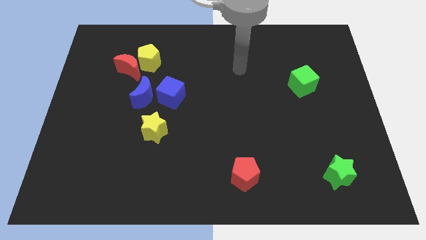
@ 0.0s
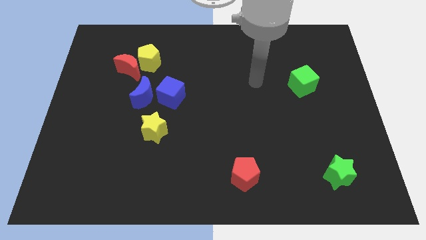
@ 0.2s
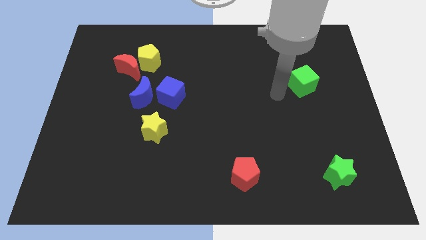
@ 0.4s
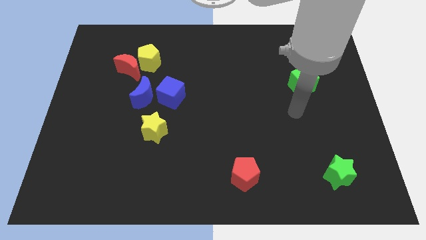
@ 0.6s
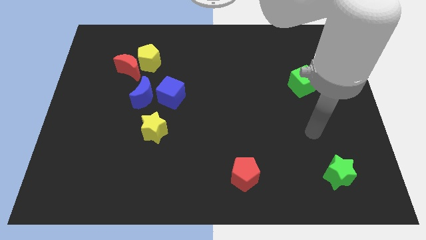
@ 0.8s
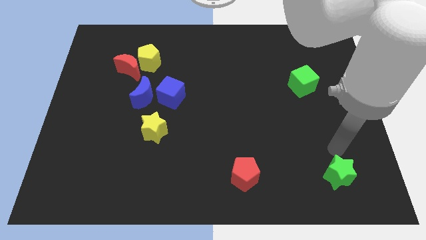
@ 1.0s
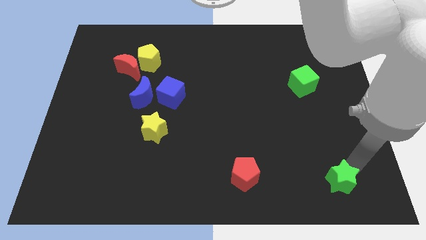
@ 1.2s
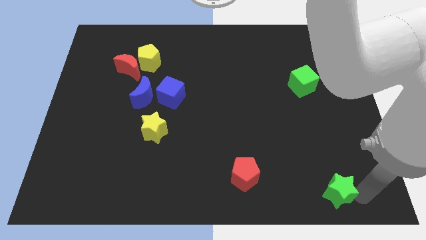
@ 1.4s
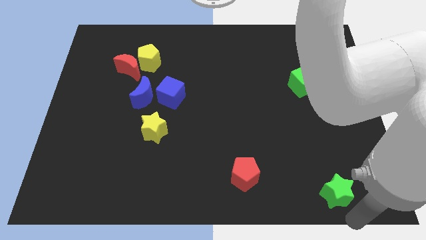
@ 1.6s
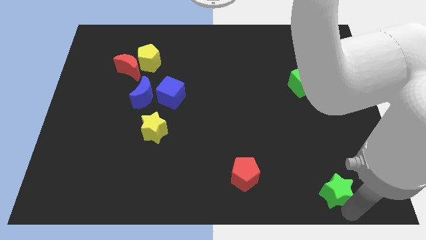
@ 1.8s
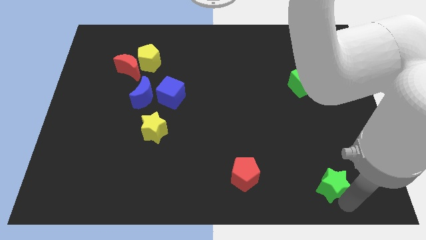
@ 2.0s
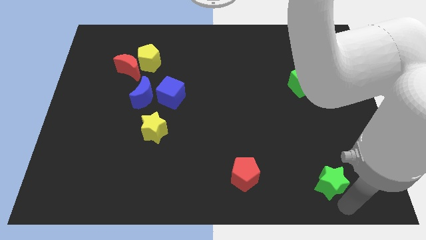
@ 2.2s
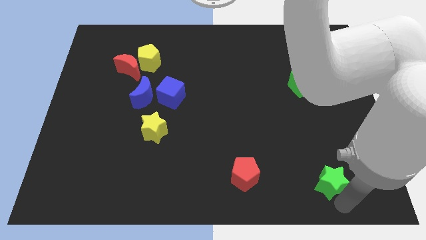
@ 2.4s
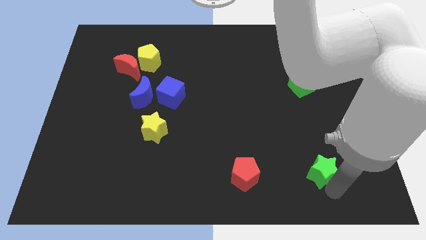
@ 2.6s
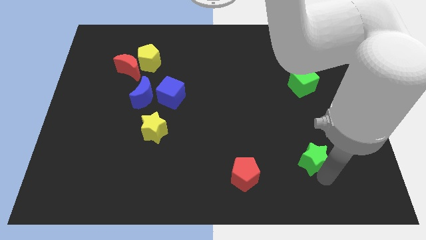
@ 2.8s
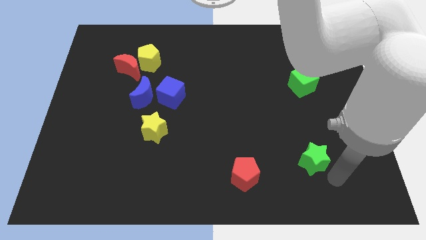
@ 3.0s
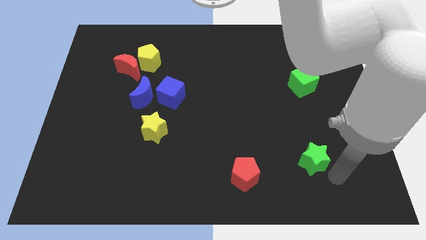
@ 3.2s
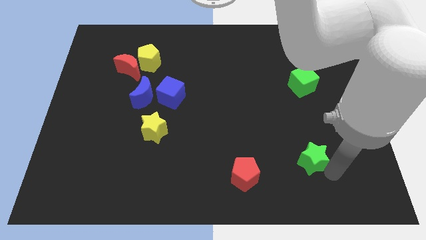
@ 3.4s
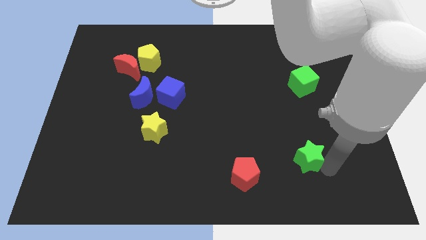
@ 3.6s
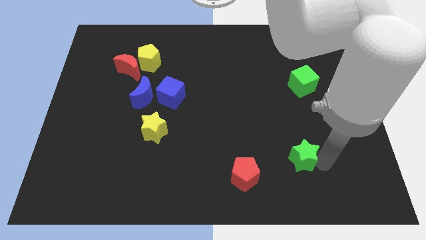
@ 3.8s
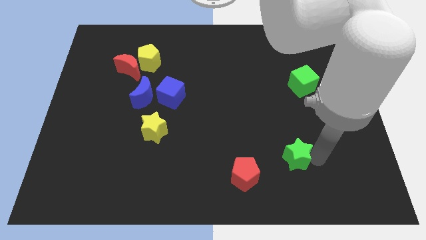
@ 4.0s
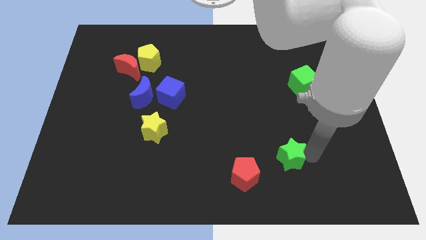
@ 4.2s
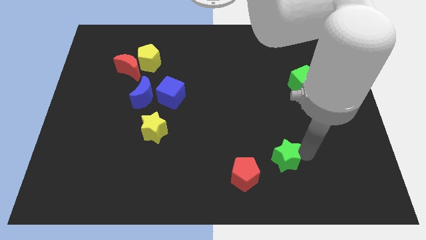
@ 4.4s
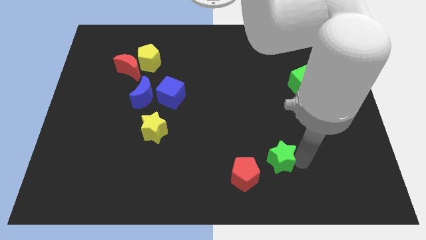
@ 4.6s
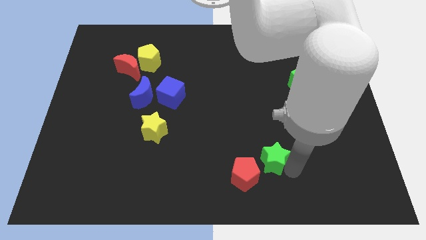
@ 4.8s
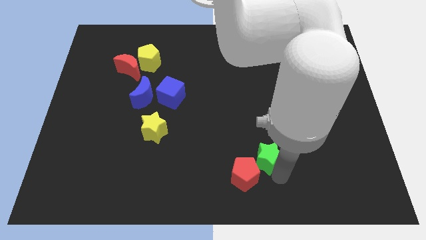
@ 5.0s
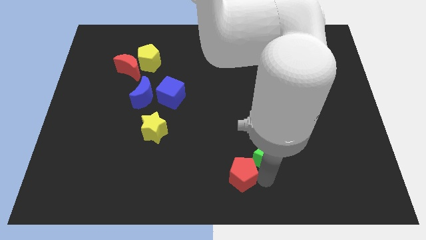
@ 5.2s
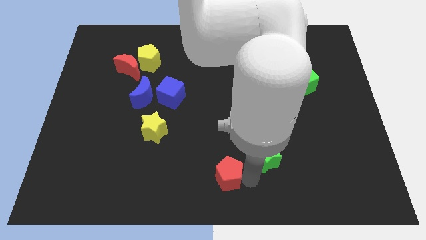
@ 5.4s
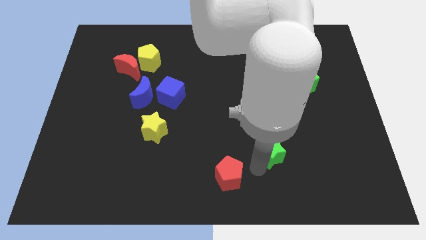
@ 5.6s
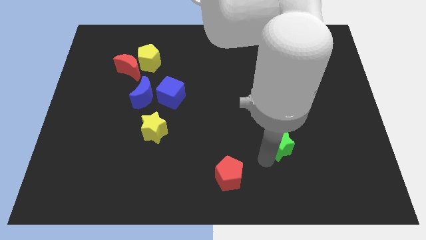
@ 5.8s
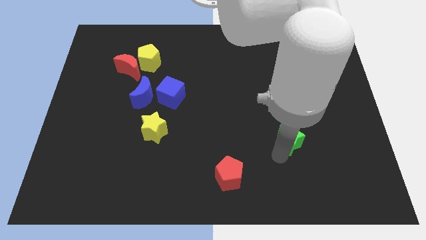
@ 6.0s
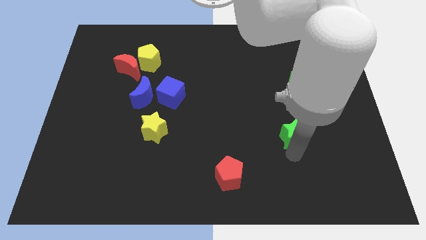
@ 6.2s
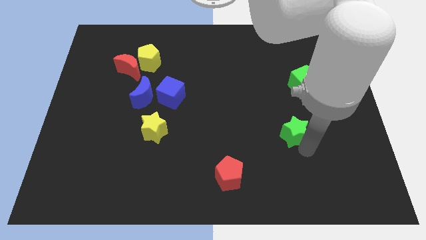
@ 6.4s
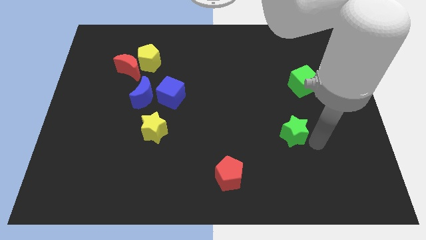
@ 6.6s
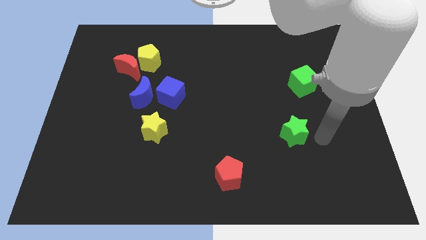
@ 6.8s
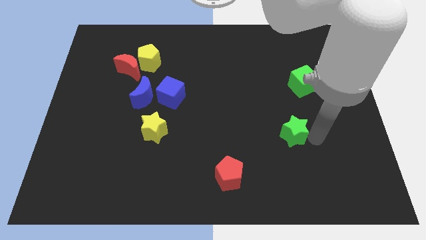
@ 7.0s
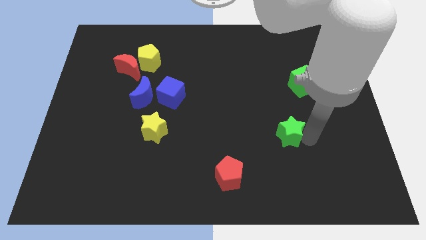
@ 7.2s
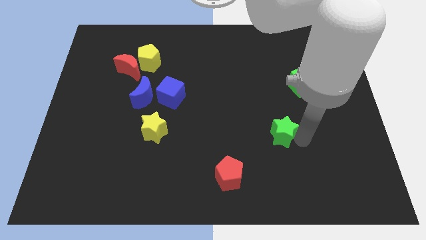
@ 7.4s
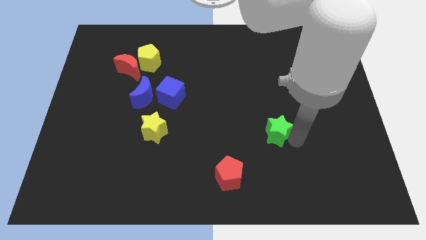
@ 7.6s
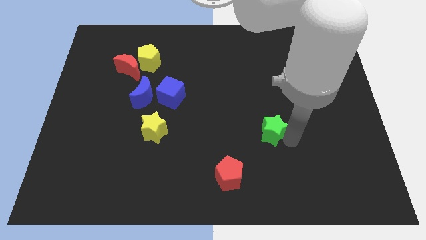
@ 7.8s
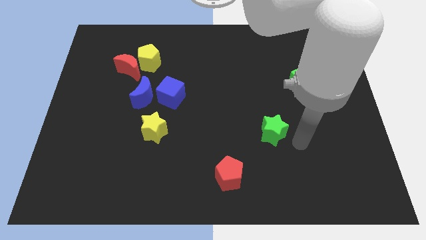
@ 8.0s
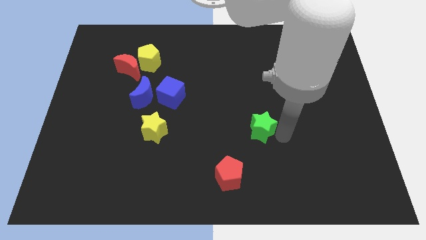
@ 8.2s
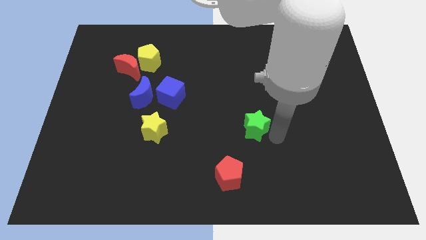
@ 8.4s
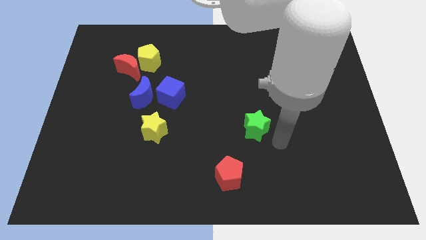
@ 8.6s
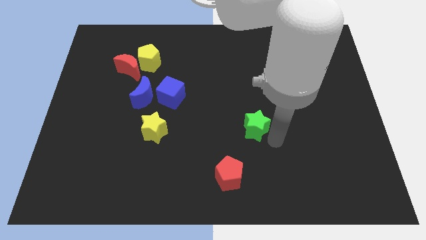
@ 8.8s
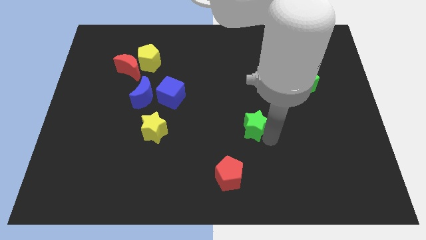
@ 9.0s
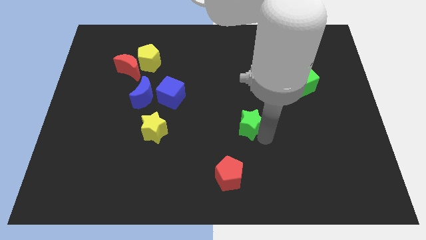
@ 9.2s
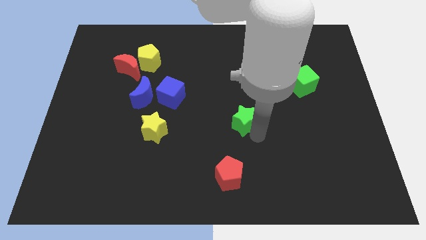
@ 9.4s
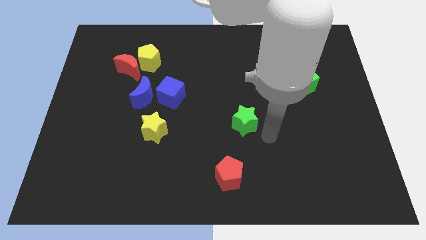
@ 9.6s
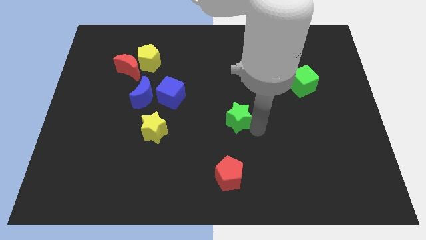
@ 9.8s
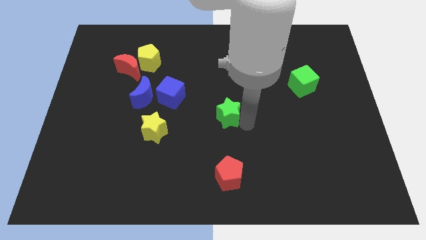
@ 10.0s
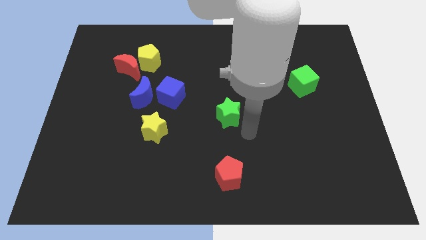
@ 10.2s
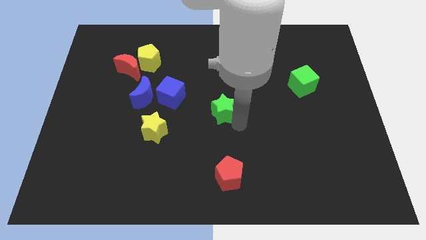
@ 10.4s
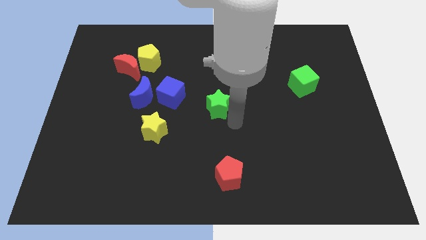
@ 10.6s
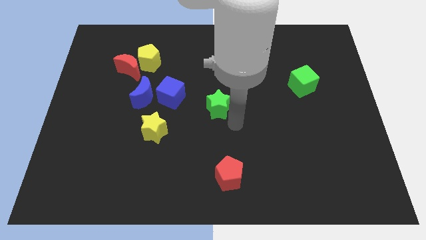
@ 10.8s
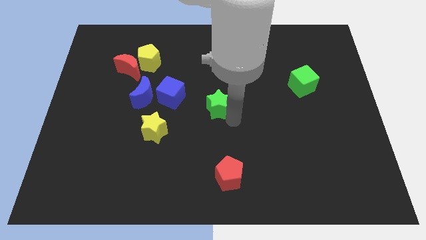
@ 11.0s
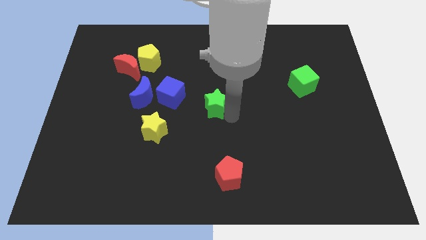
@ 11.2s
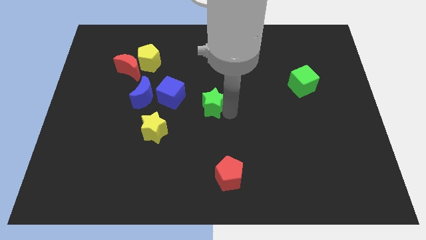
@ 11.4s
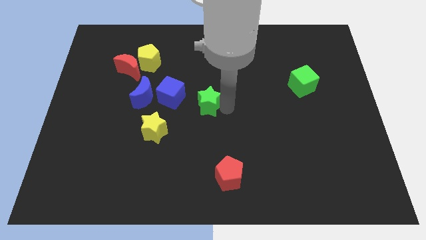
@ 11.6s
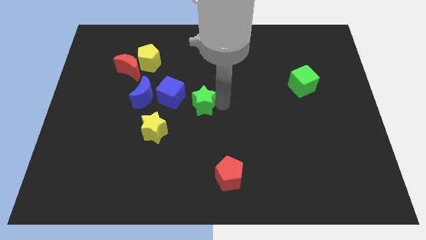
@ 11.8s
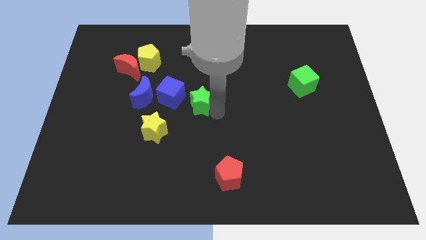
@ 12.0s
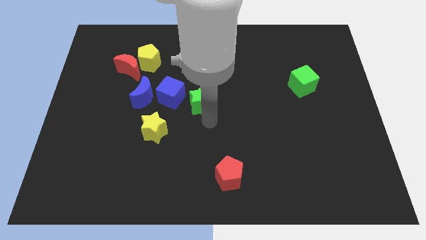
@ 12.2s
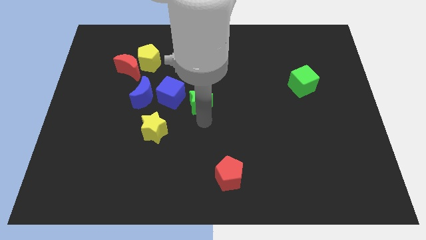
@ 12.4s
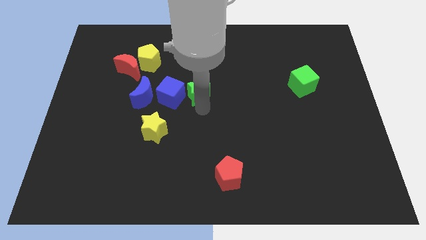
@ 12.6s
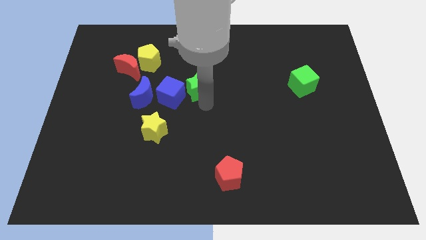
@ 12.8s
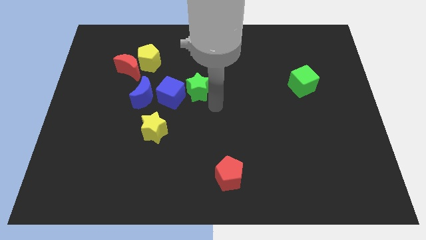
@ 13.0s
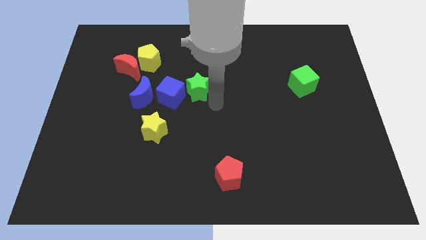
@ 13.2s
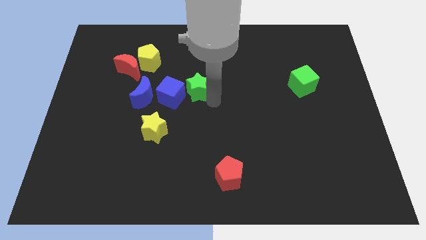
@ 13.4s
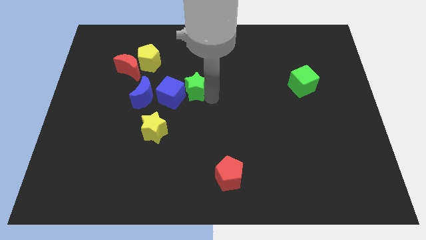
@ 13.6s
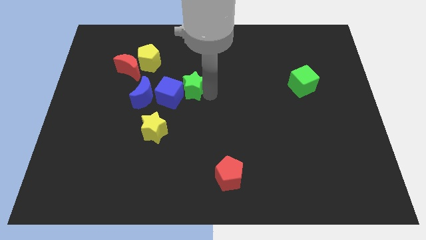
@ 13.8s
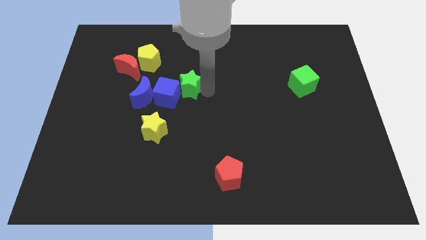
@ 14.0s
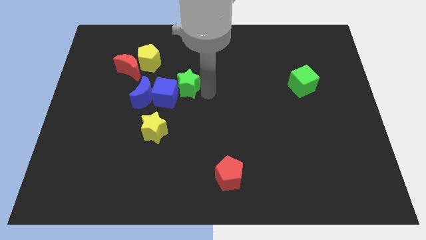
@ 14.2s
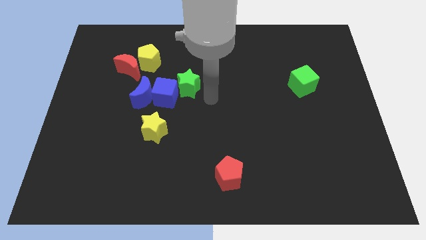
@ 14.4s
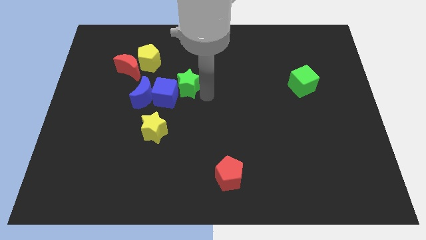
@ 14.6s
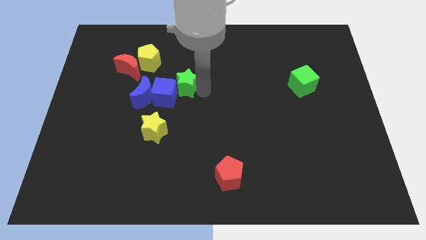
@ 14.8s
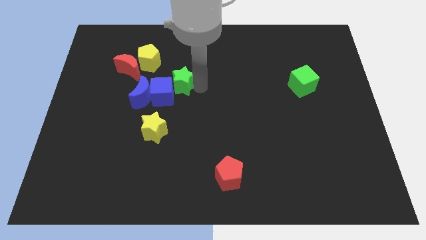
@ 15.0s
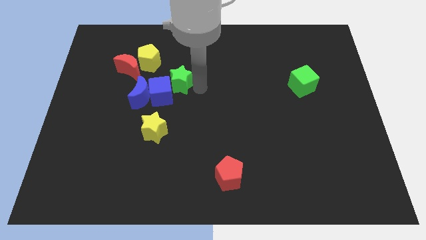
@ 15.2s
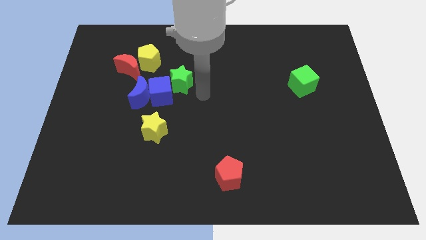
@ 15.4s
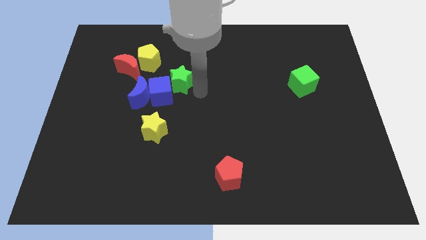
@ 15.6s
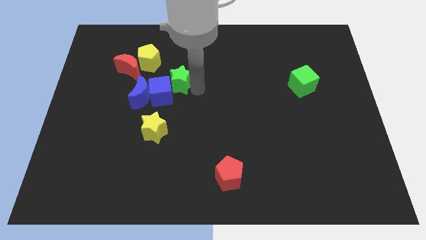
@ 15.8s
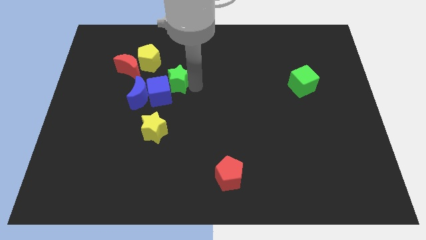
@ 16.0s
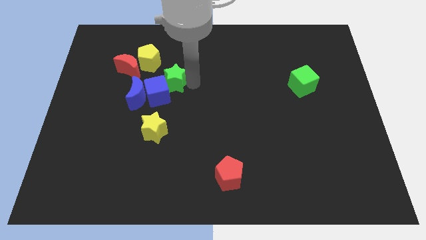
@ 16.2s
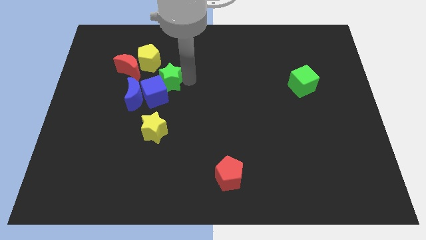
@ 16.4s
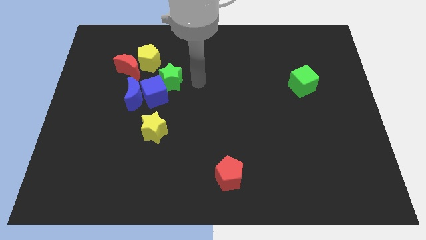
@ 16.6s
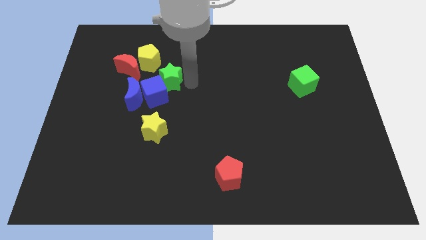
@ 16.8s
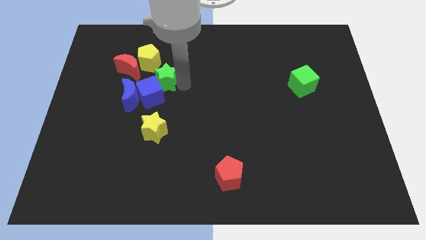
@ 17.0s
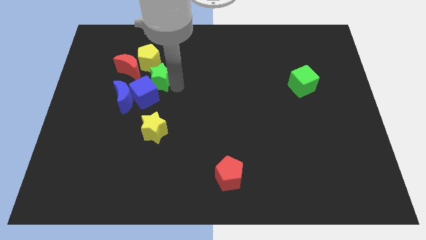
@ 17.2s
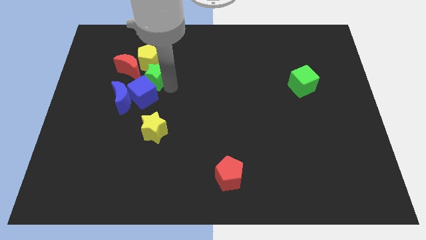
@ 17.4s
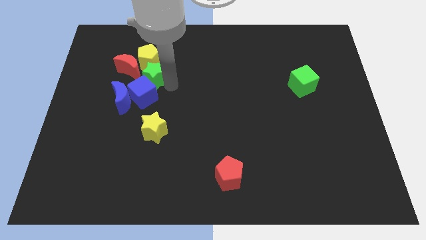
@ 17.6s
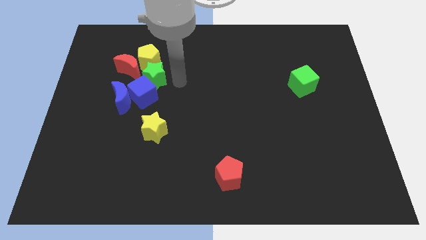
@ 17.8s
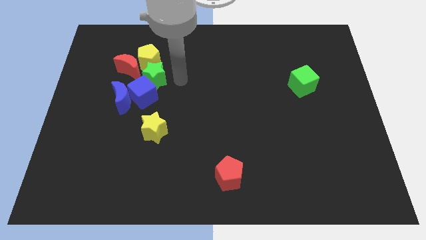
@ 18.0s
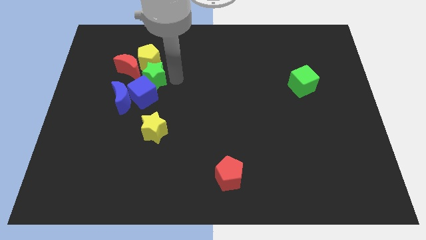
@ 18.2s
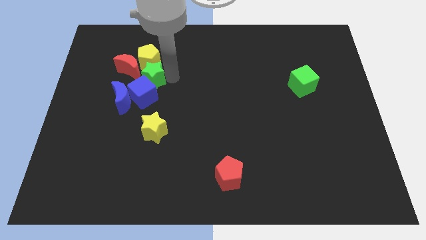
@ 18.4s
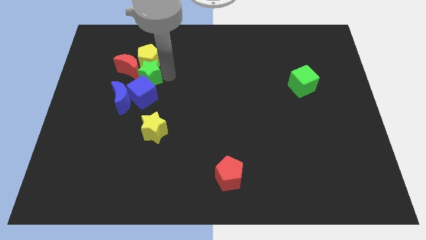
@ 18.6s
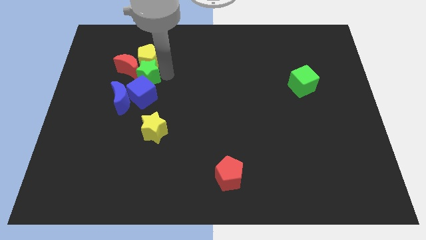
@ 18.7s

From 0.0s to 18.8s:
slide the green star next to the red moon
